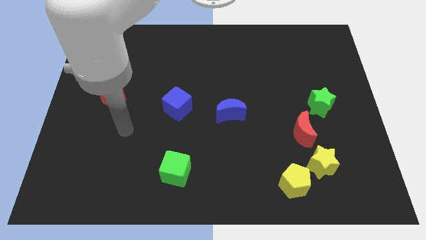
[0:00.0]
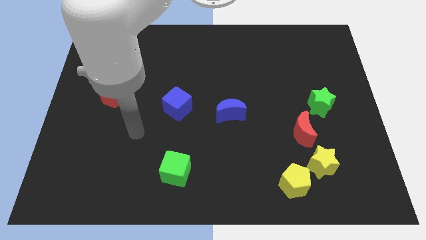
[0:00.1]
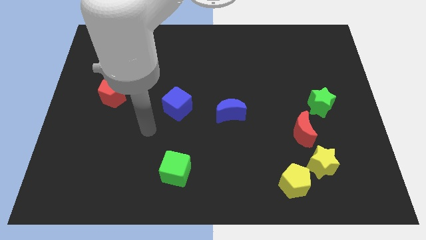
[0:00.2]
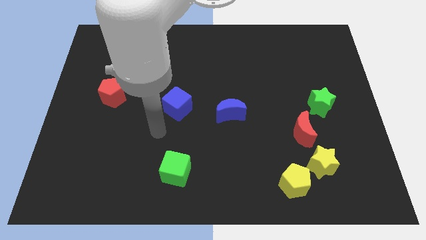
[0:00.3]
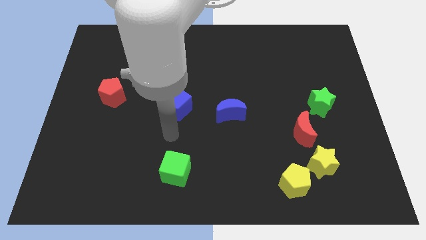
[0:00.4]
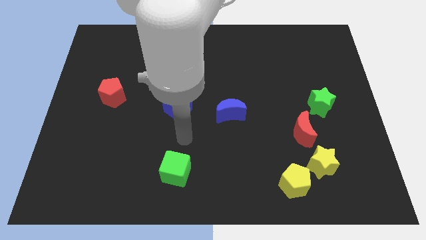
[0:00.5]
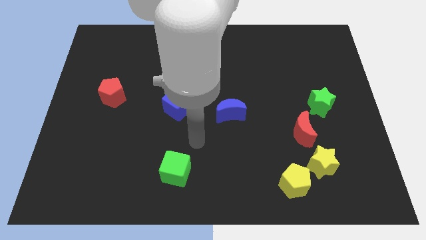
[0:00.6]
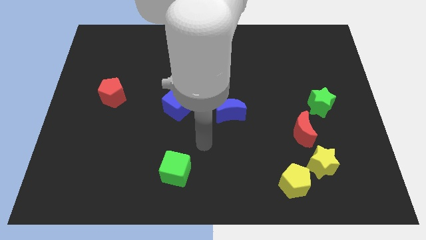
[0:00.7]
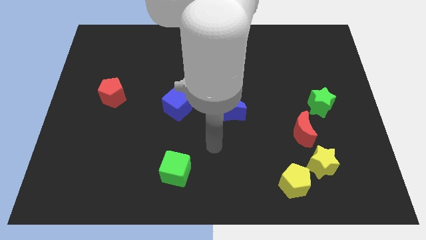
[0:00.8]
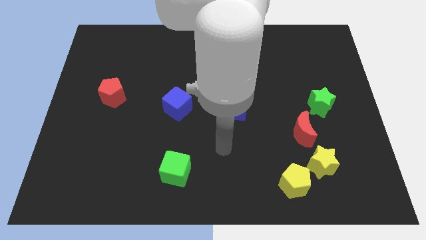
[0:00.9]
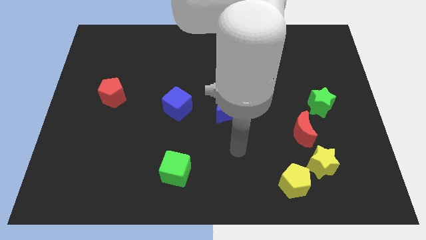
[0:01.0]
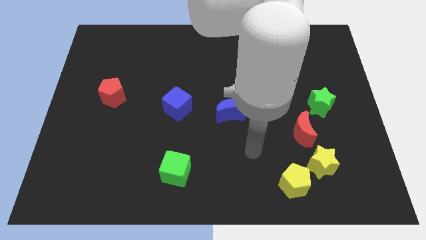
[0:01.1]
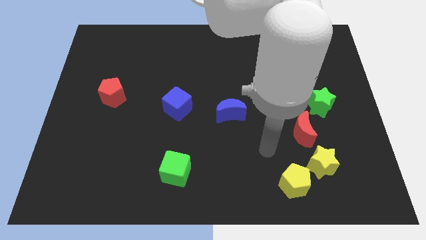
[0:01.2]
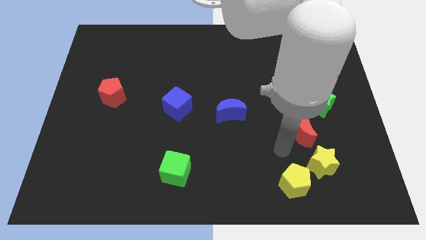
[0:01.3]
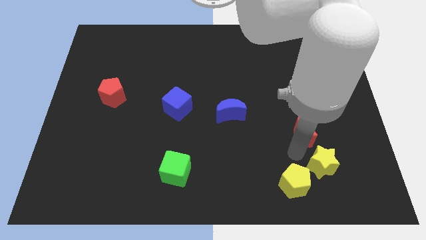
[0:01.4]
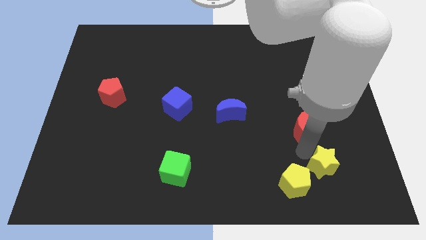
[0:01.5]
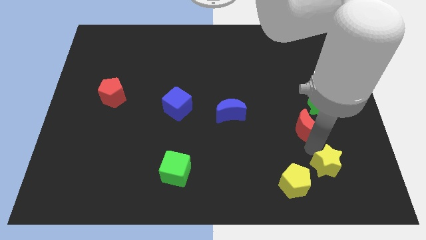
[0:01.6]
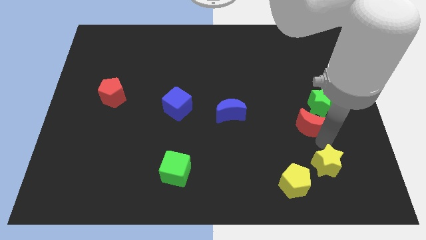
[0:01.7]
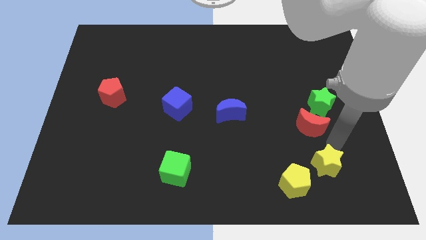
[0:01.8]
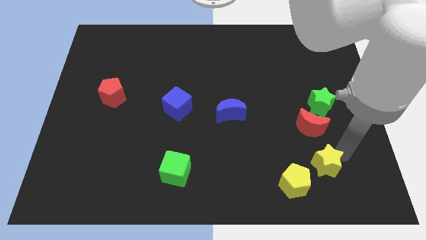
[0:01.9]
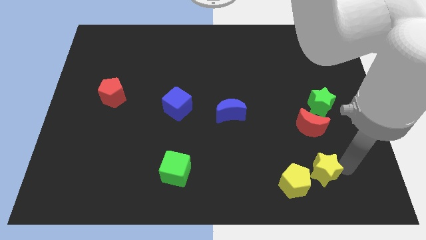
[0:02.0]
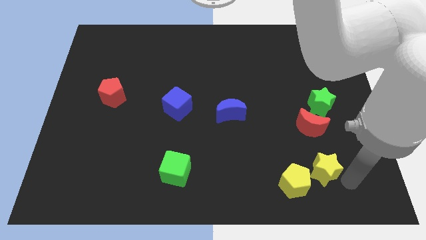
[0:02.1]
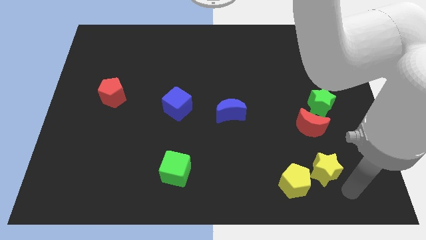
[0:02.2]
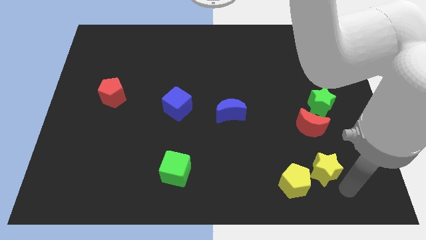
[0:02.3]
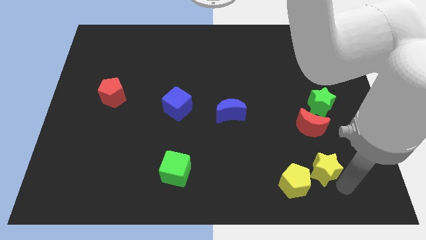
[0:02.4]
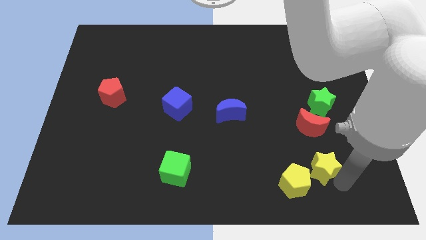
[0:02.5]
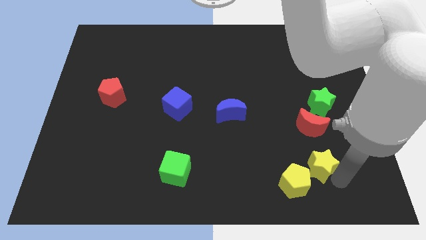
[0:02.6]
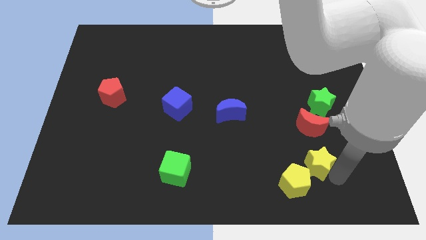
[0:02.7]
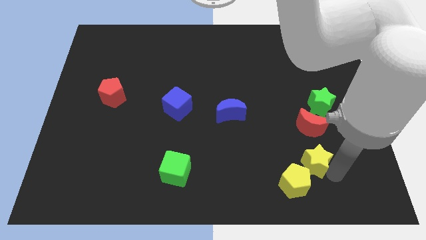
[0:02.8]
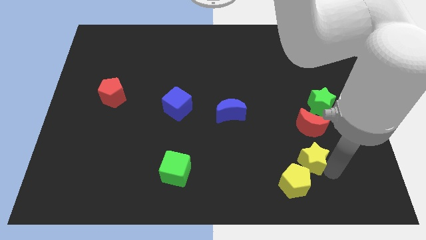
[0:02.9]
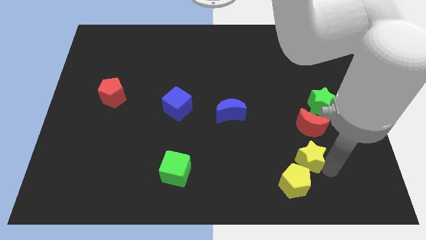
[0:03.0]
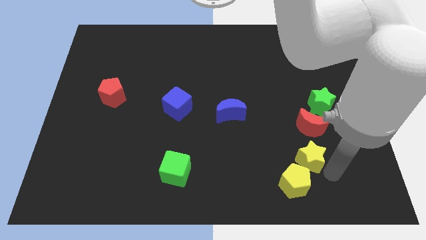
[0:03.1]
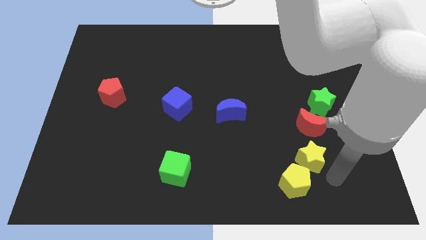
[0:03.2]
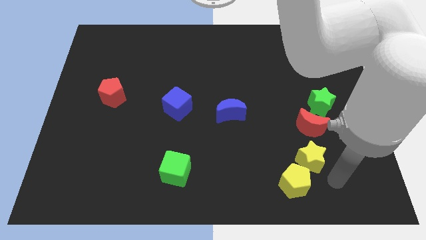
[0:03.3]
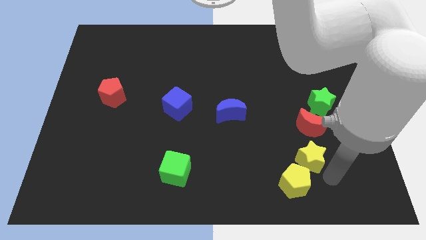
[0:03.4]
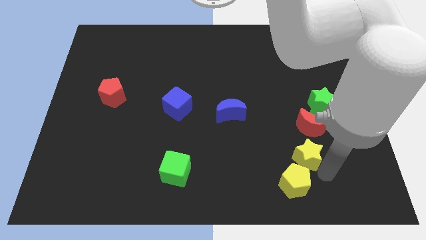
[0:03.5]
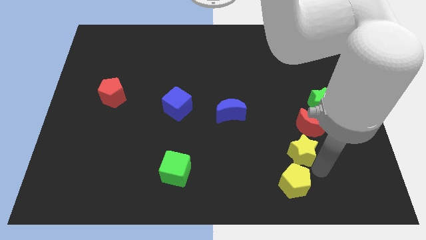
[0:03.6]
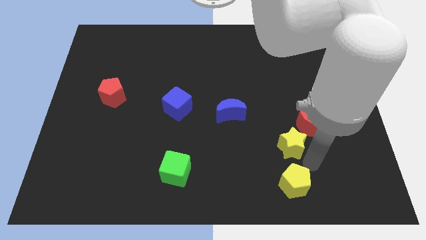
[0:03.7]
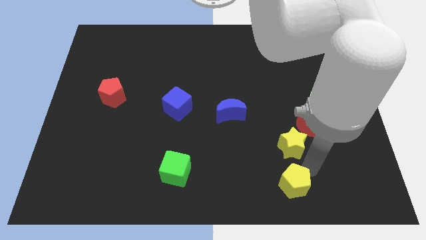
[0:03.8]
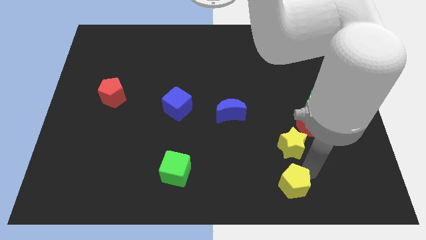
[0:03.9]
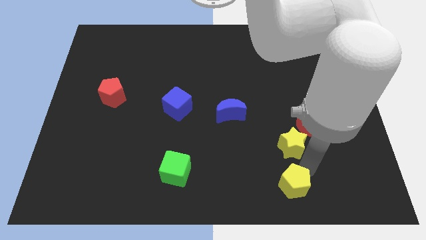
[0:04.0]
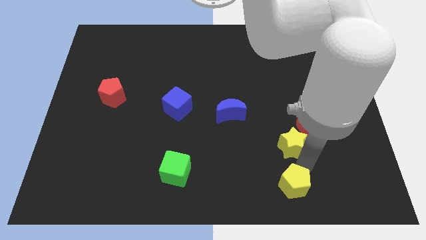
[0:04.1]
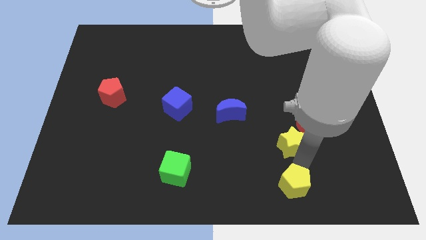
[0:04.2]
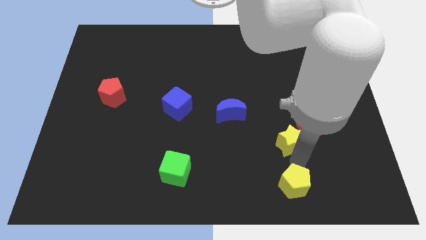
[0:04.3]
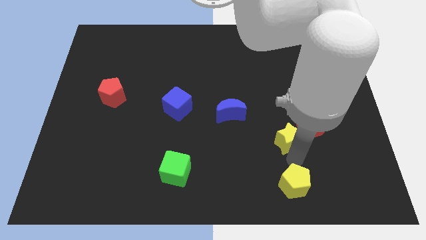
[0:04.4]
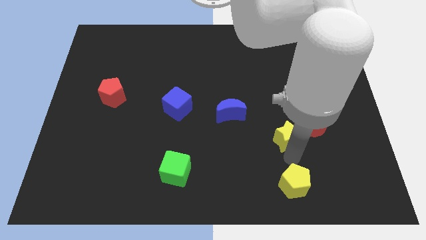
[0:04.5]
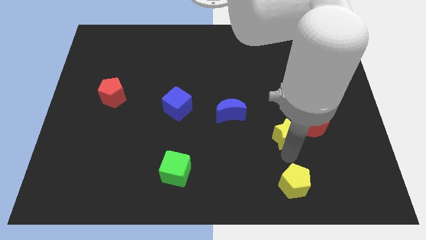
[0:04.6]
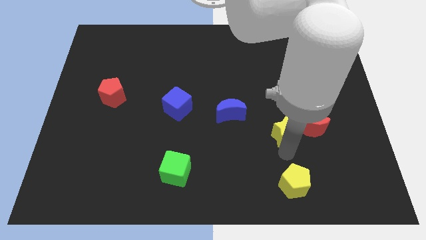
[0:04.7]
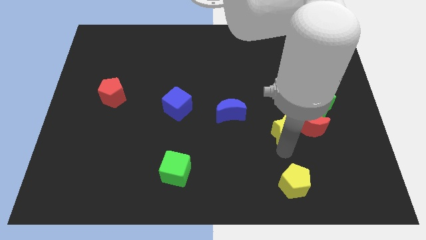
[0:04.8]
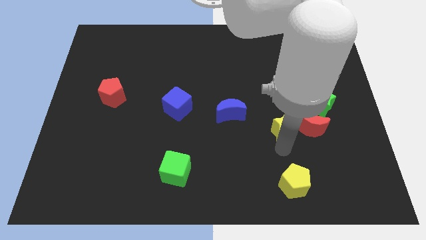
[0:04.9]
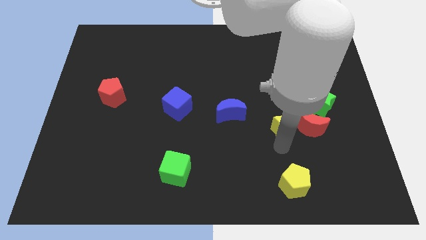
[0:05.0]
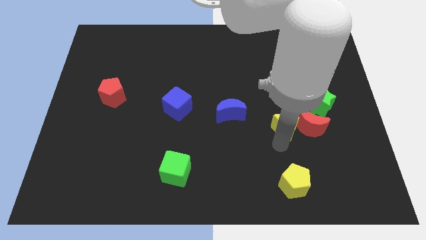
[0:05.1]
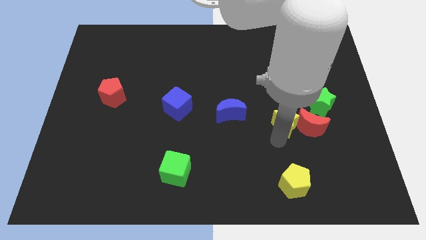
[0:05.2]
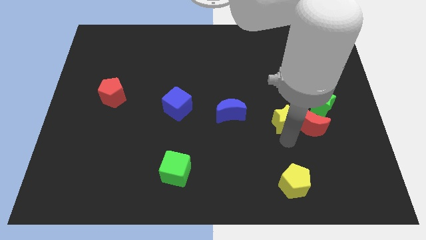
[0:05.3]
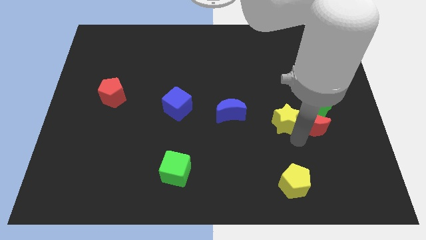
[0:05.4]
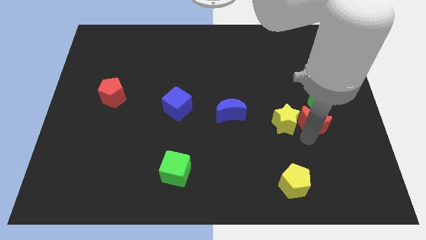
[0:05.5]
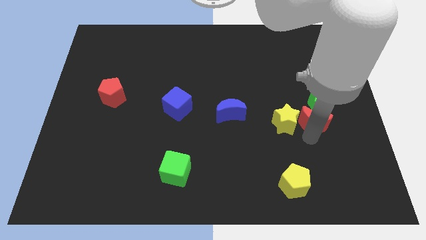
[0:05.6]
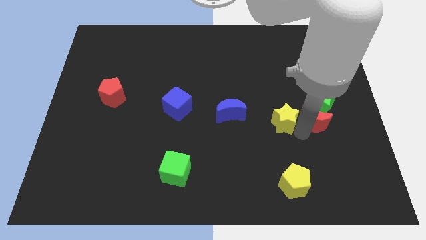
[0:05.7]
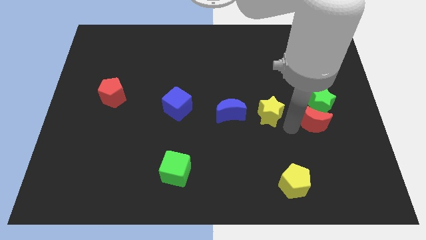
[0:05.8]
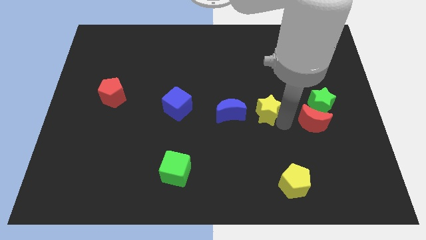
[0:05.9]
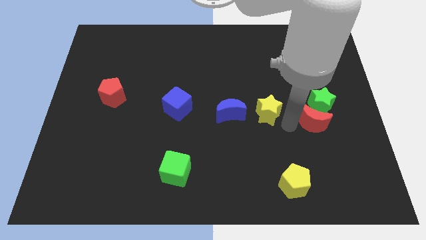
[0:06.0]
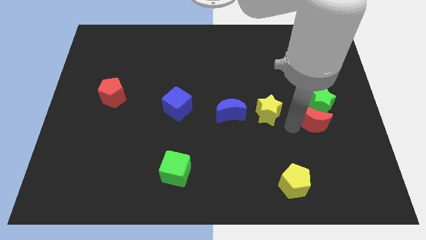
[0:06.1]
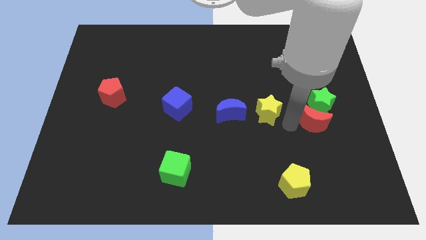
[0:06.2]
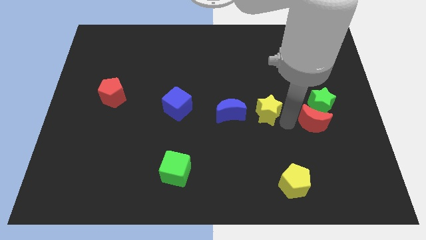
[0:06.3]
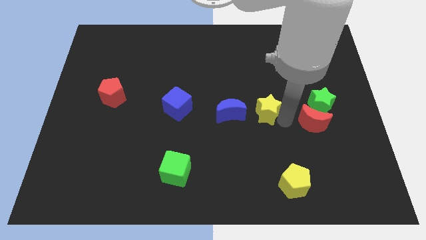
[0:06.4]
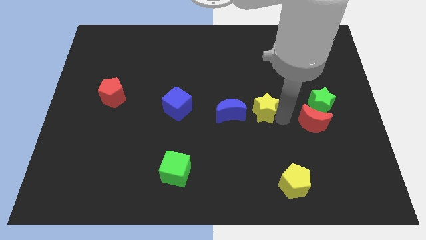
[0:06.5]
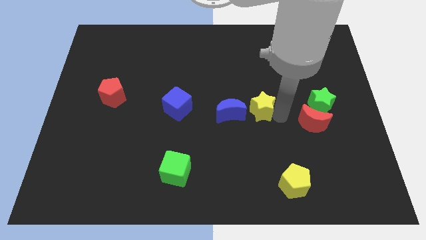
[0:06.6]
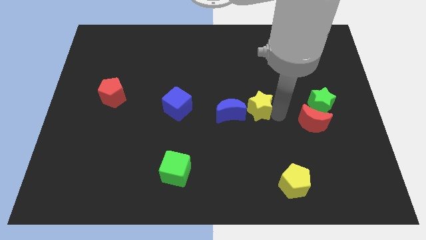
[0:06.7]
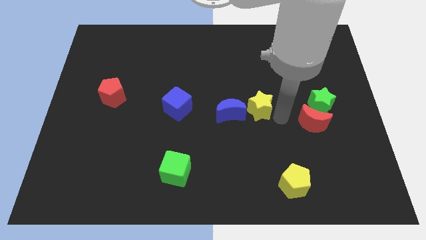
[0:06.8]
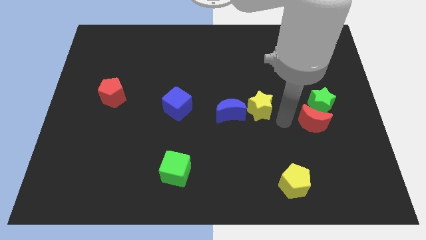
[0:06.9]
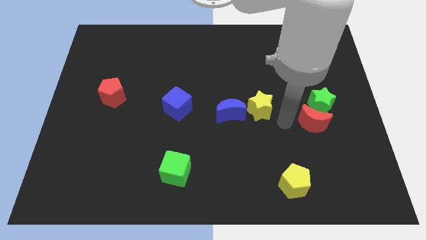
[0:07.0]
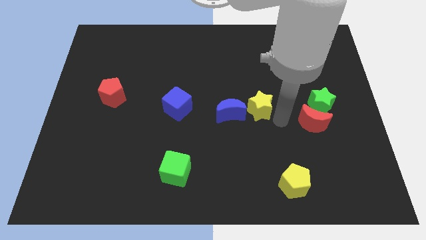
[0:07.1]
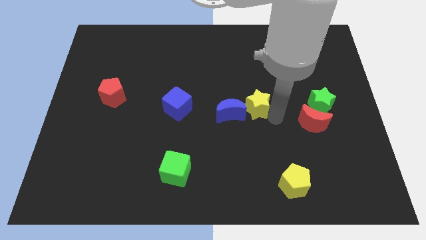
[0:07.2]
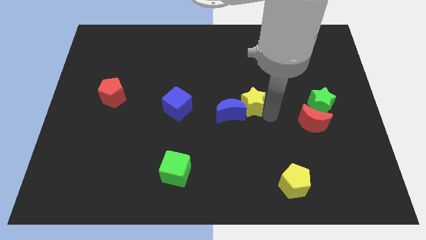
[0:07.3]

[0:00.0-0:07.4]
move the yellow star diagonally up and to the left

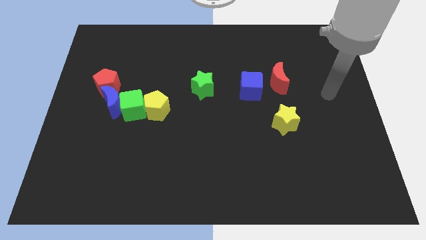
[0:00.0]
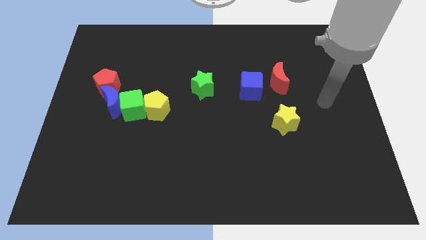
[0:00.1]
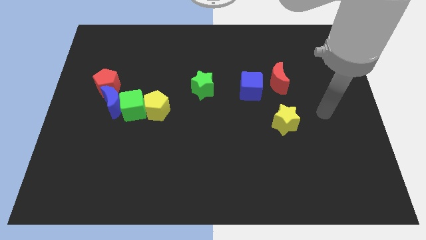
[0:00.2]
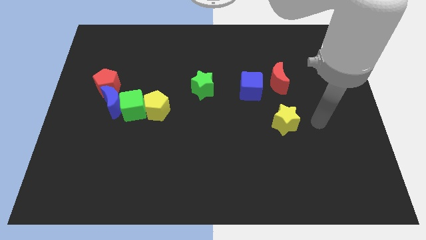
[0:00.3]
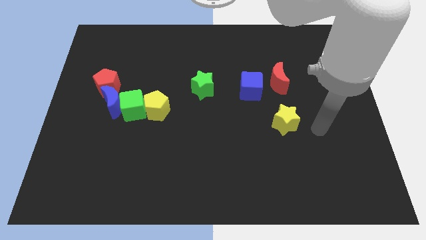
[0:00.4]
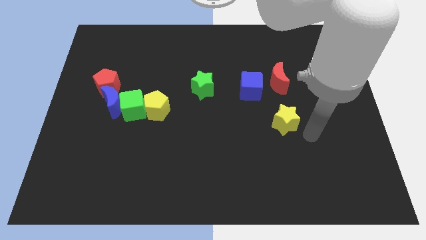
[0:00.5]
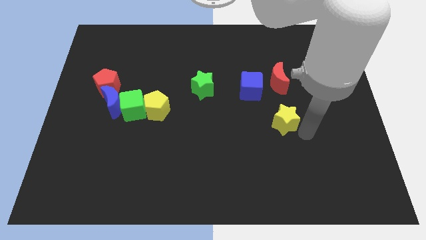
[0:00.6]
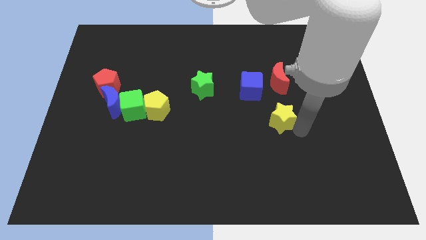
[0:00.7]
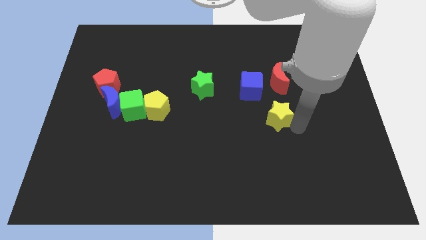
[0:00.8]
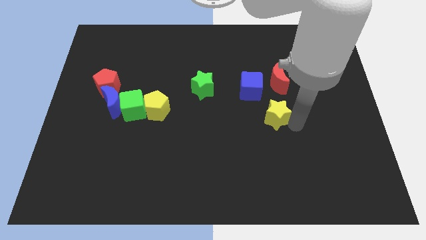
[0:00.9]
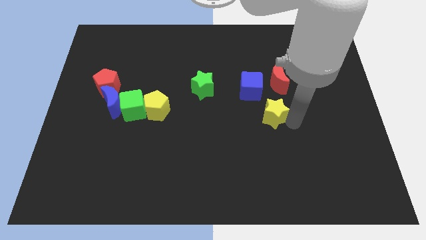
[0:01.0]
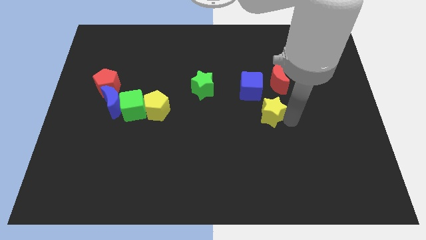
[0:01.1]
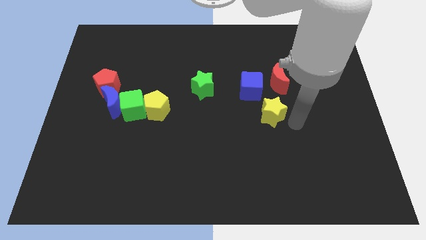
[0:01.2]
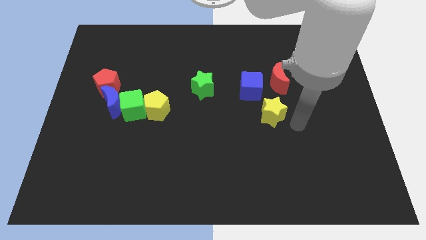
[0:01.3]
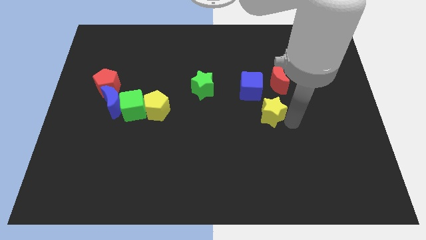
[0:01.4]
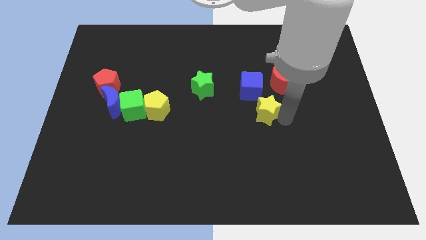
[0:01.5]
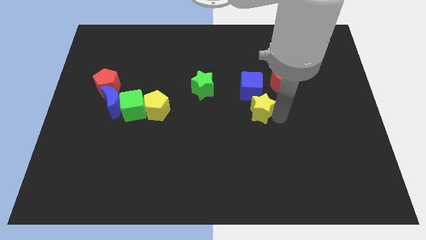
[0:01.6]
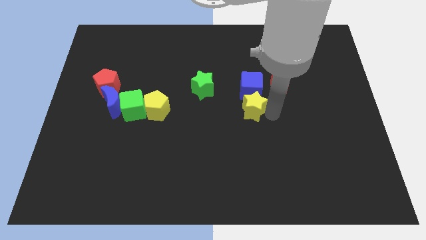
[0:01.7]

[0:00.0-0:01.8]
slightly slide the yellow star upwards and left diagonally
